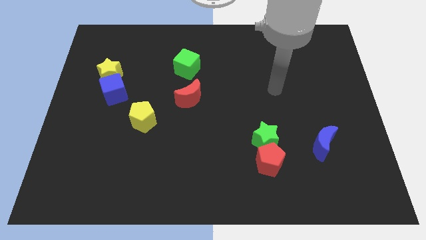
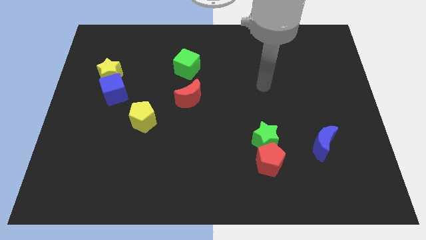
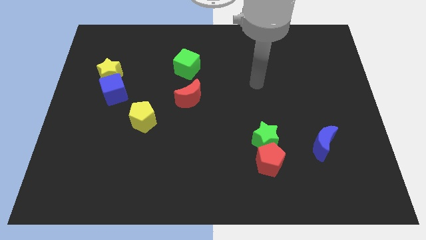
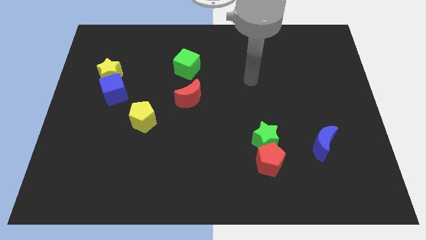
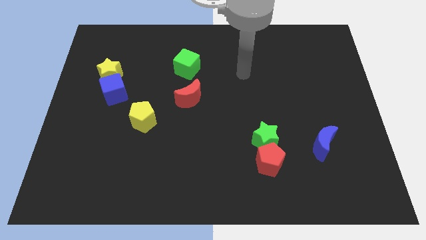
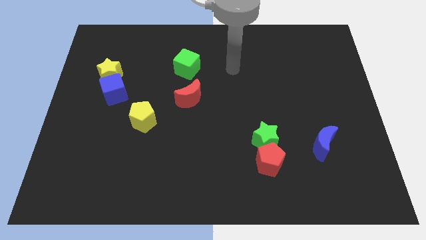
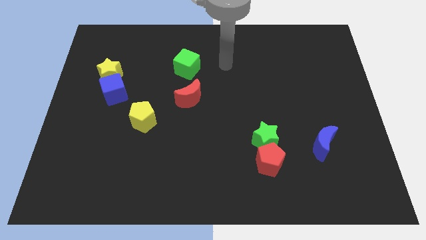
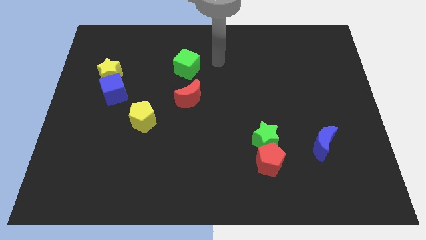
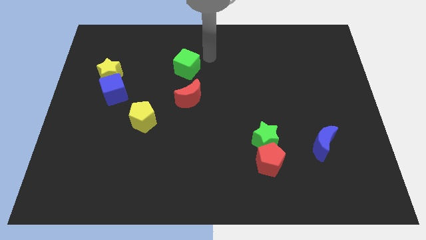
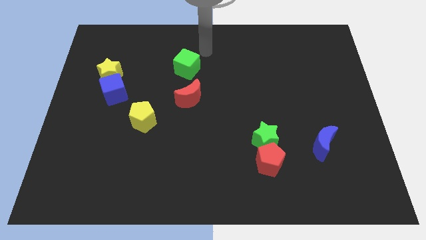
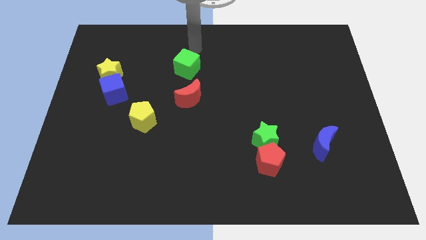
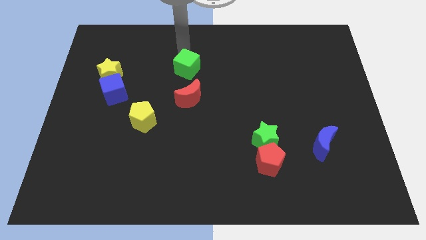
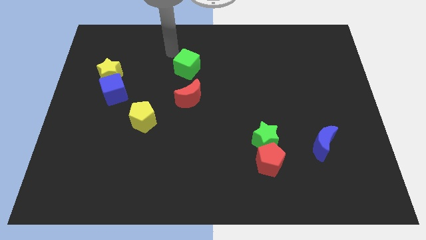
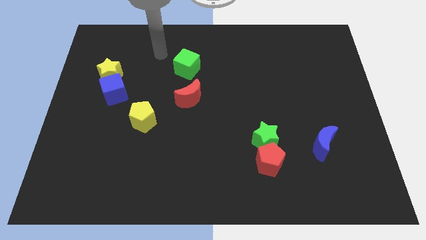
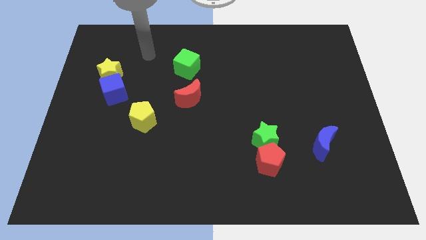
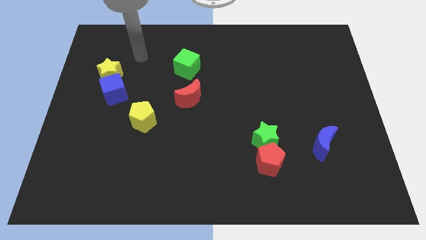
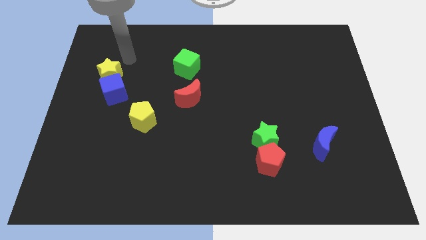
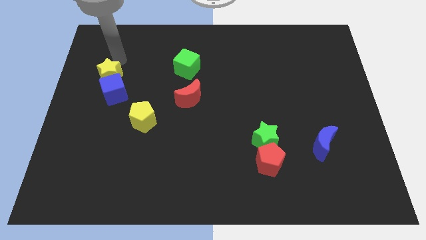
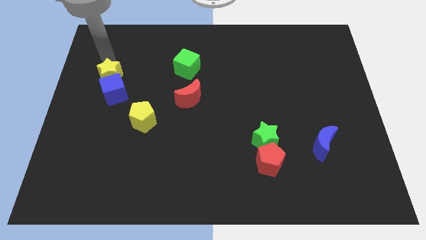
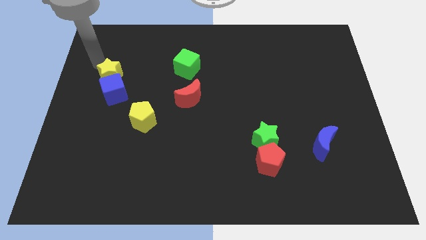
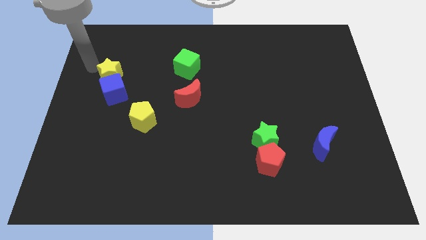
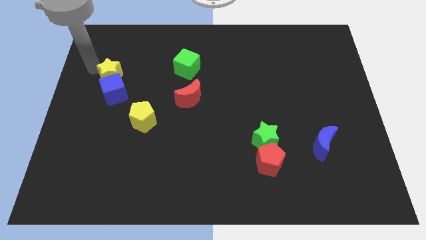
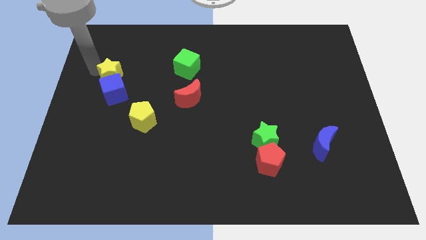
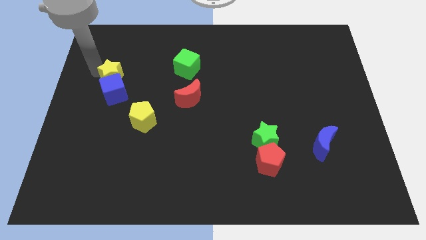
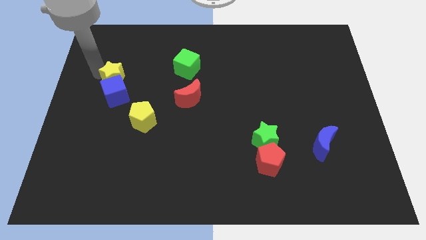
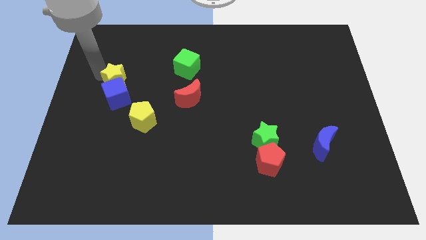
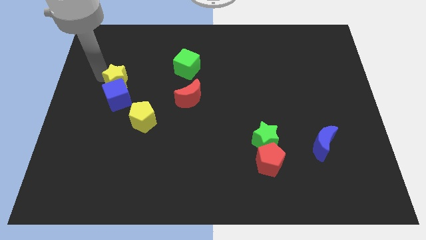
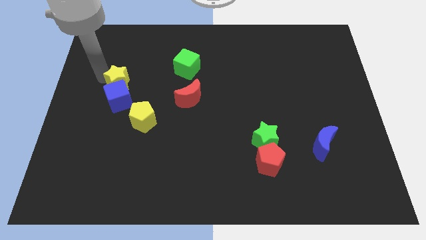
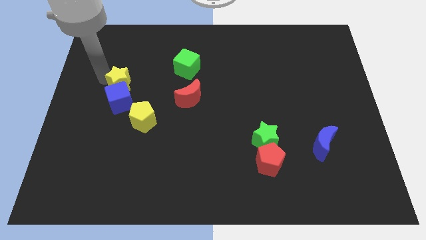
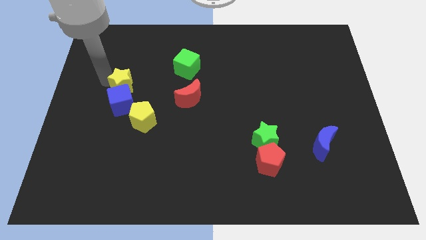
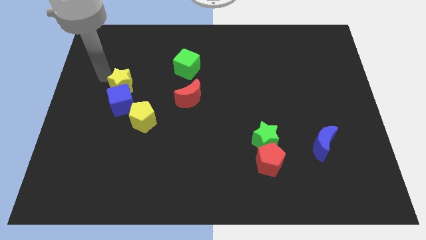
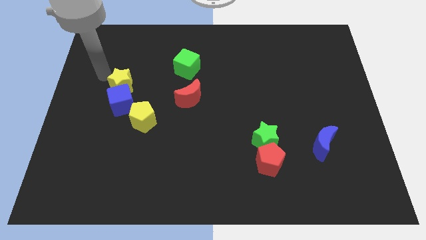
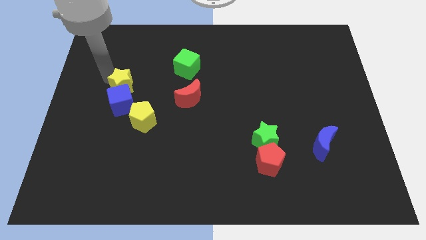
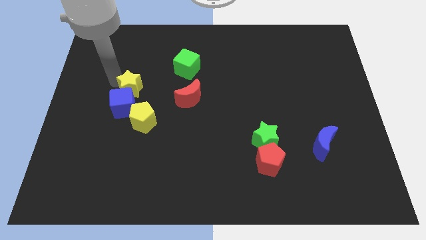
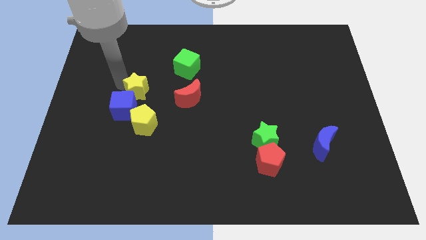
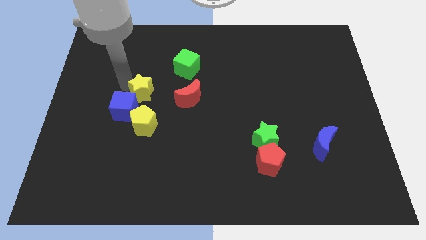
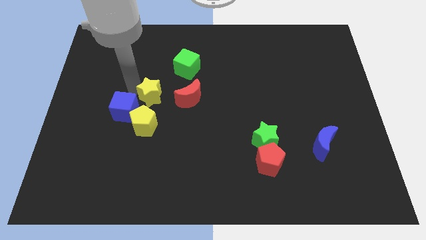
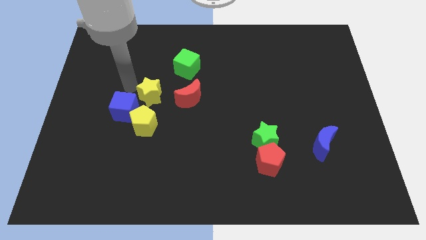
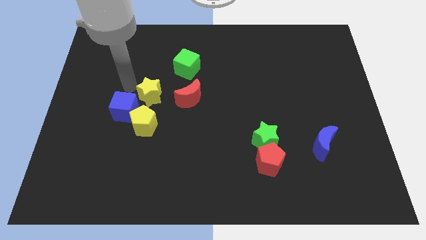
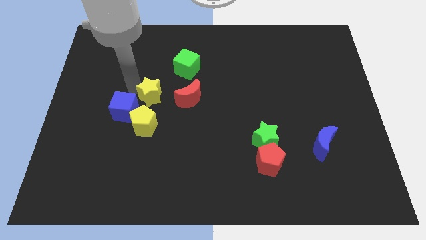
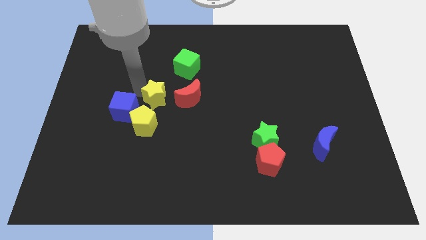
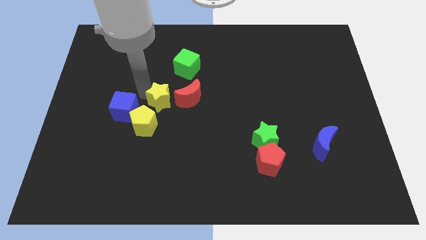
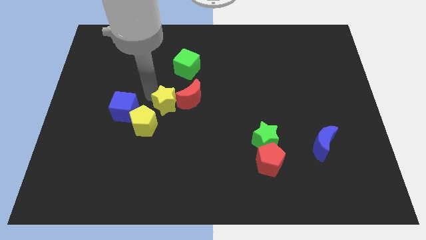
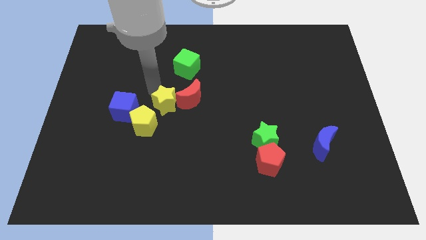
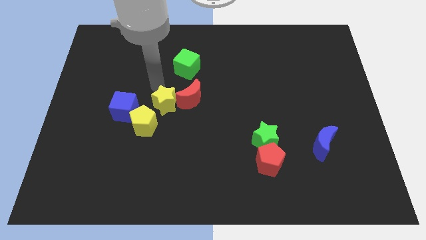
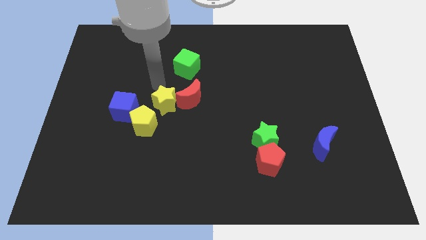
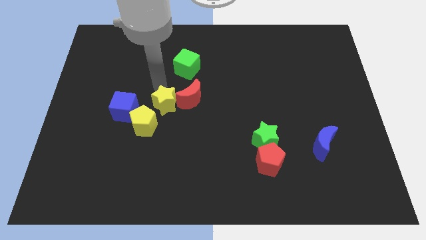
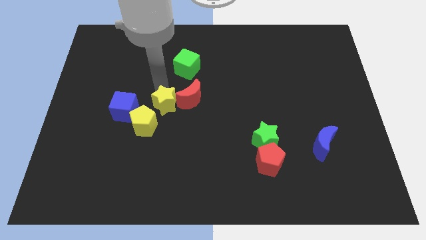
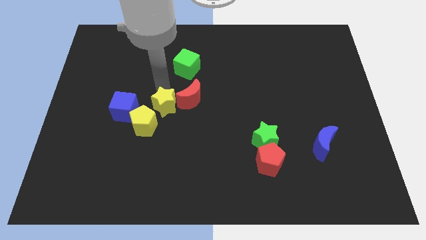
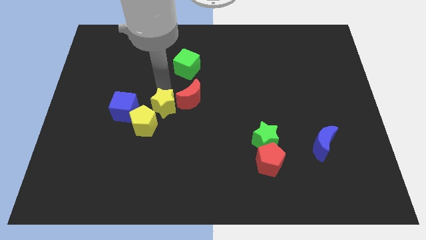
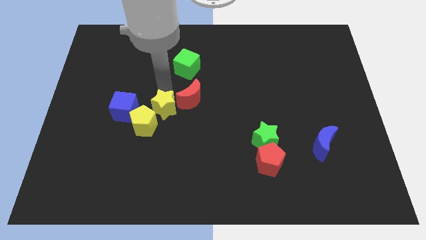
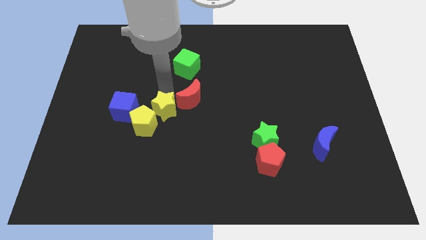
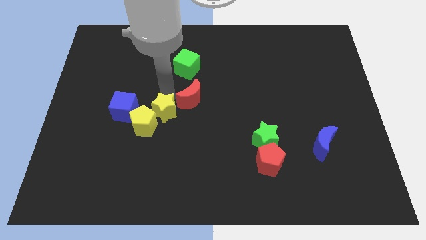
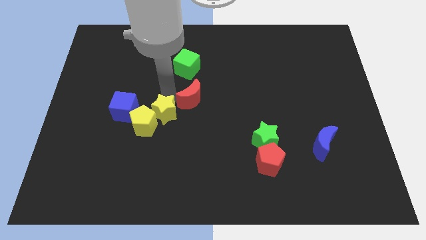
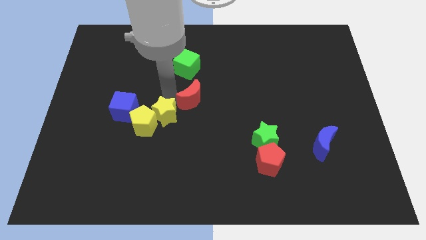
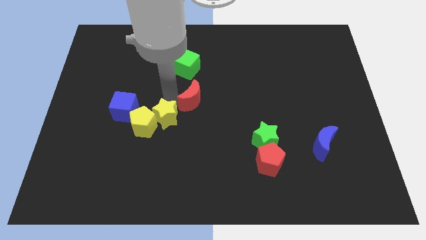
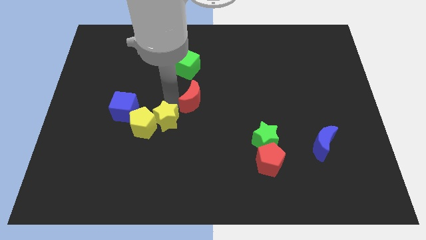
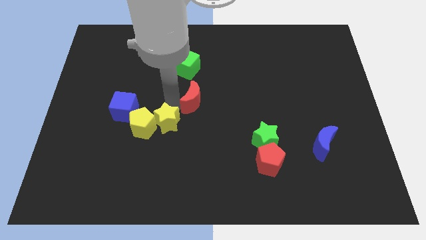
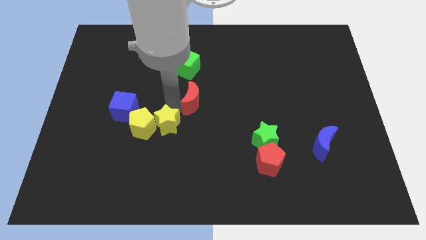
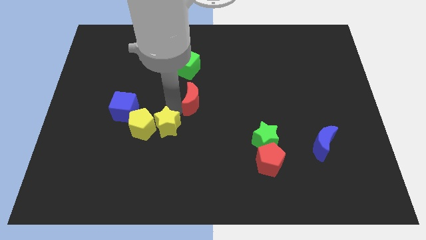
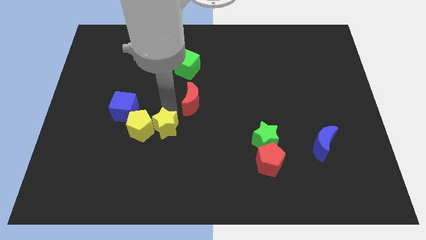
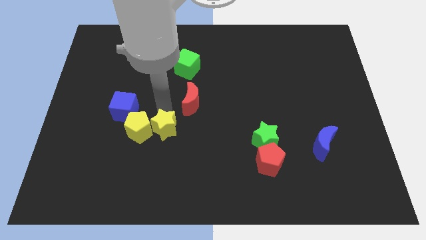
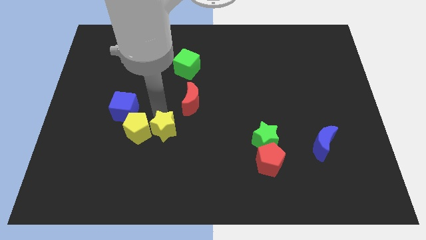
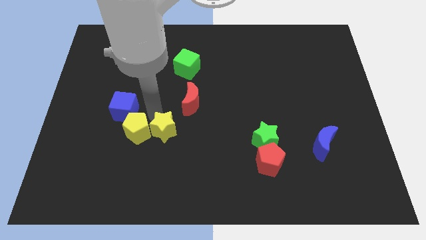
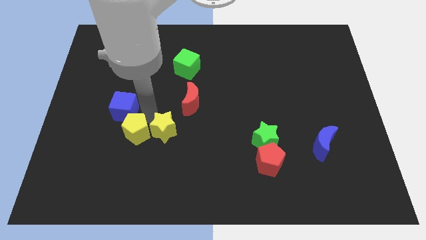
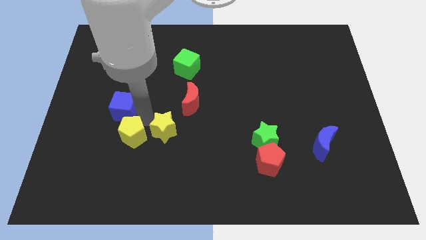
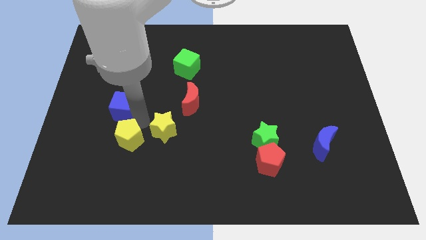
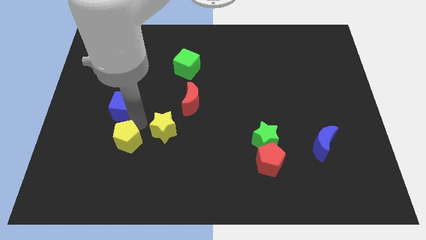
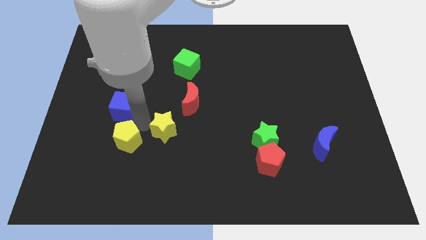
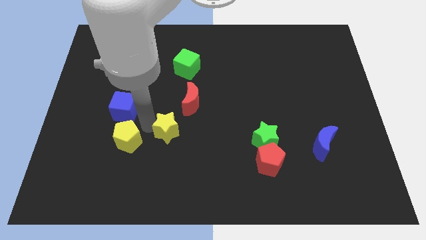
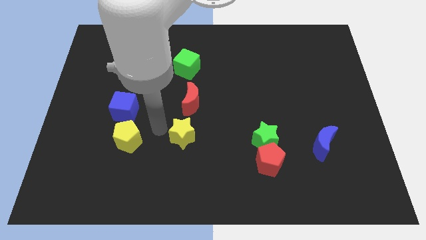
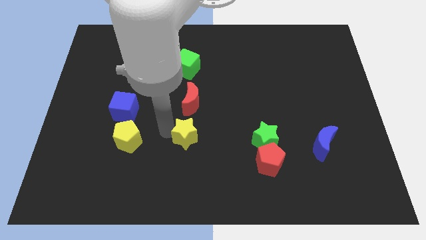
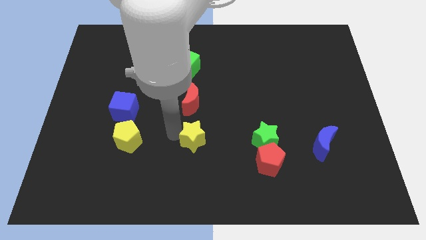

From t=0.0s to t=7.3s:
push the yellow star just left of the green star
